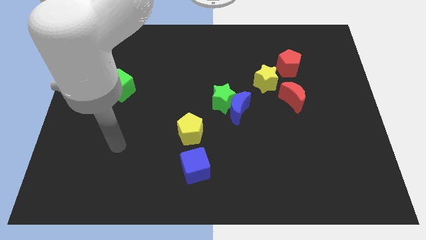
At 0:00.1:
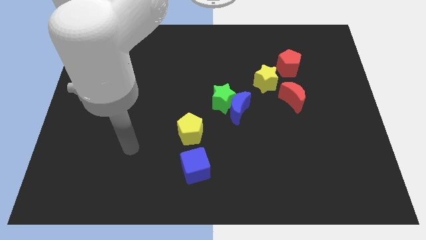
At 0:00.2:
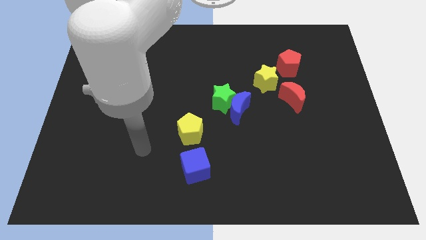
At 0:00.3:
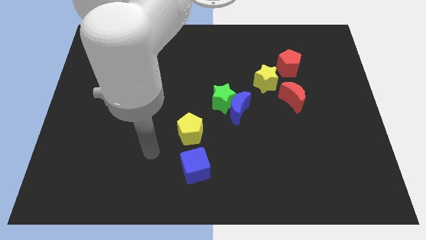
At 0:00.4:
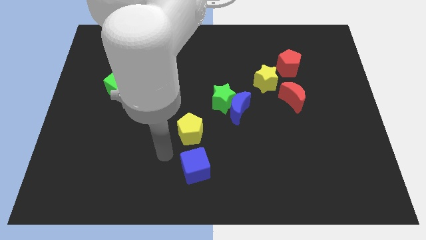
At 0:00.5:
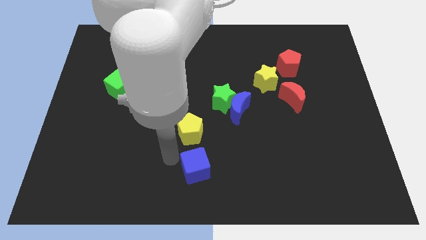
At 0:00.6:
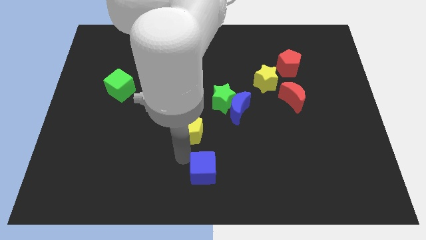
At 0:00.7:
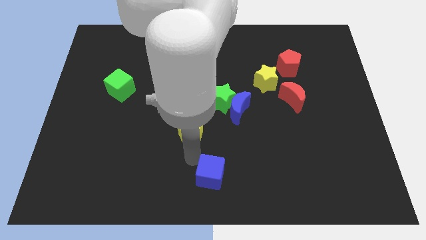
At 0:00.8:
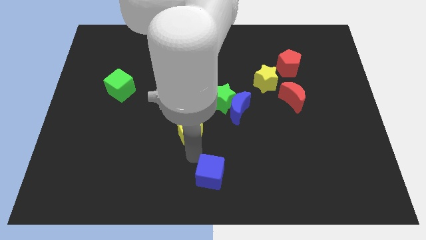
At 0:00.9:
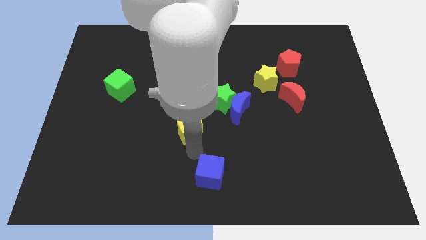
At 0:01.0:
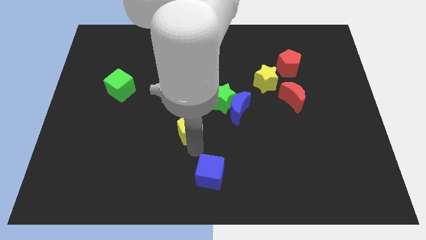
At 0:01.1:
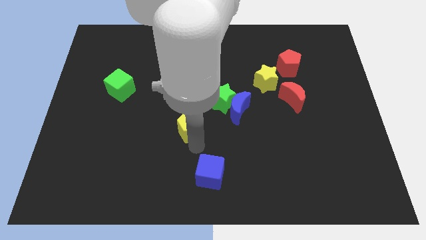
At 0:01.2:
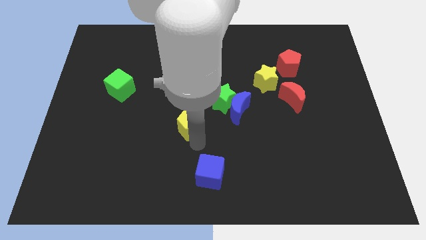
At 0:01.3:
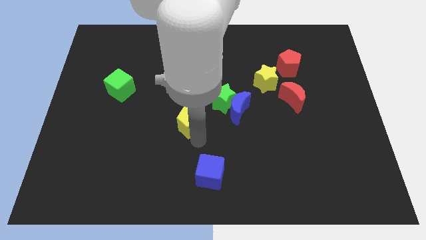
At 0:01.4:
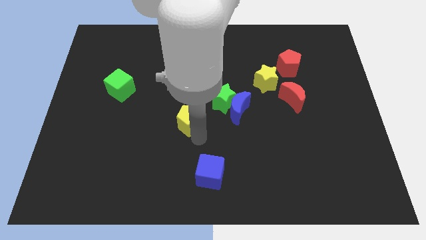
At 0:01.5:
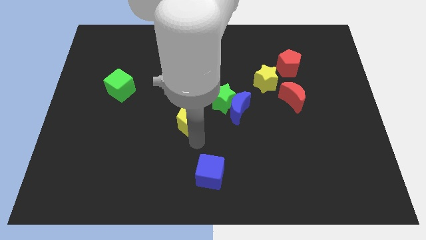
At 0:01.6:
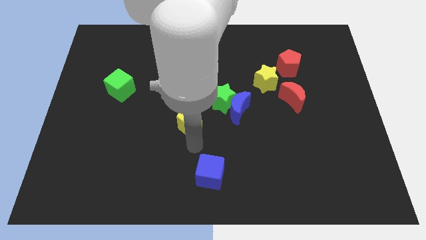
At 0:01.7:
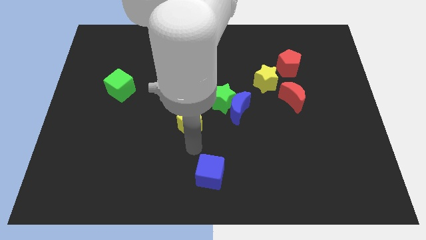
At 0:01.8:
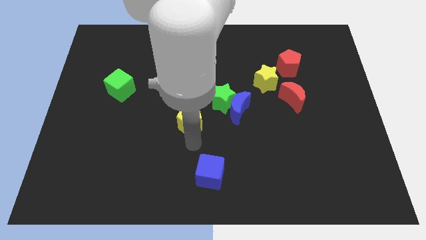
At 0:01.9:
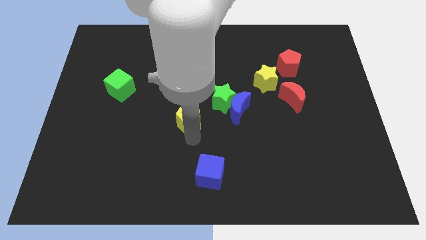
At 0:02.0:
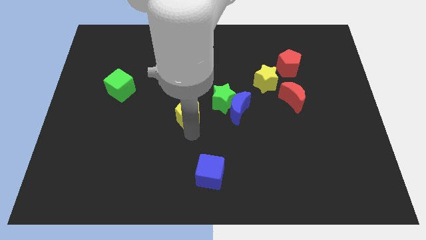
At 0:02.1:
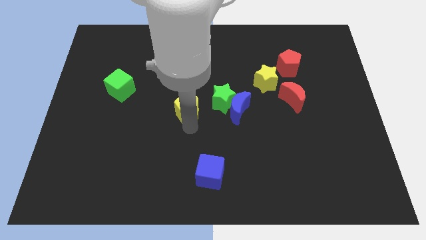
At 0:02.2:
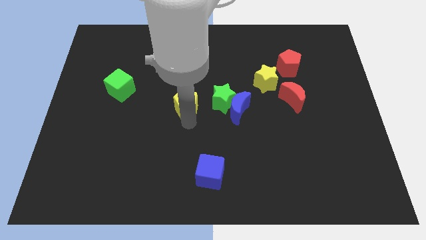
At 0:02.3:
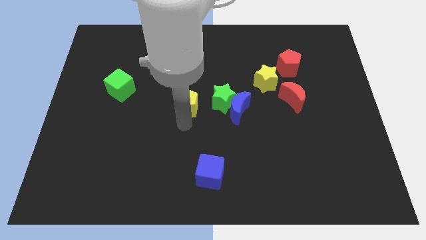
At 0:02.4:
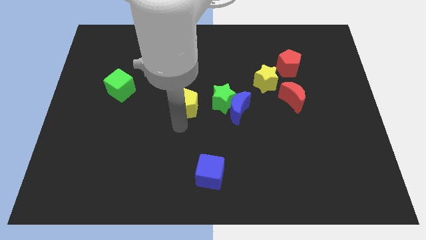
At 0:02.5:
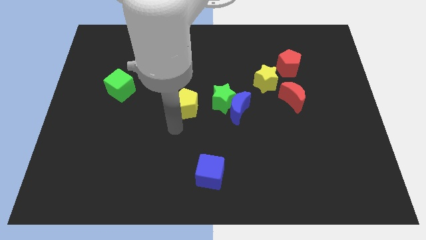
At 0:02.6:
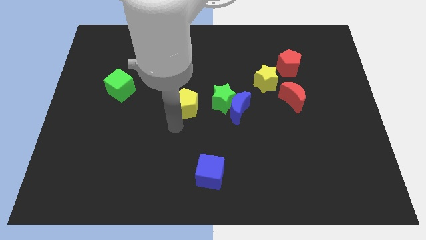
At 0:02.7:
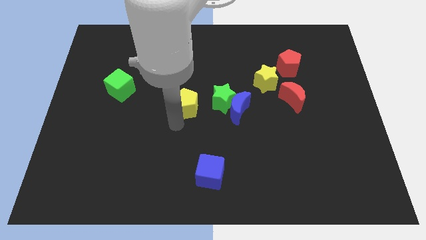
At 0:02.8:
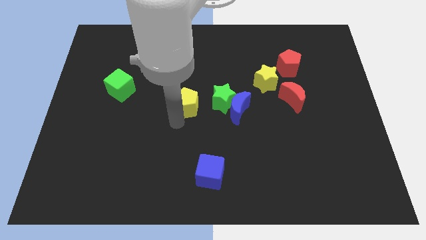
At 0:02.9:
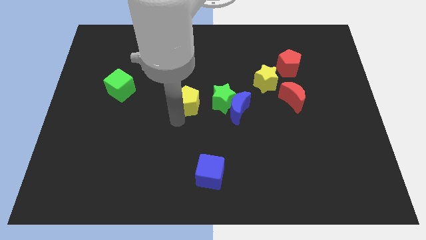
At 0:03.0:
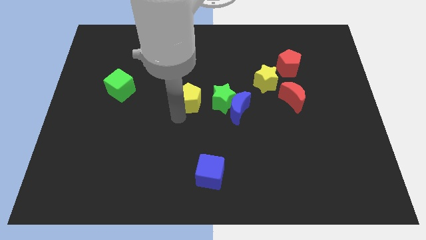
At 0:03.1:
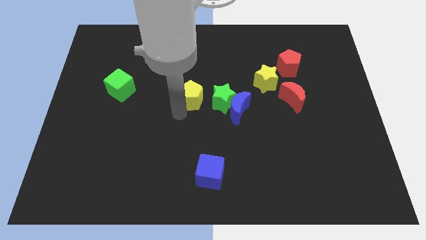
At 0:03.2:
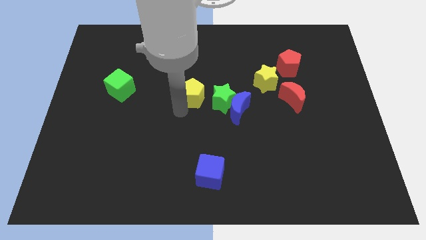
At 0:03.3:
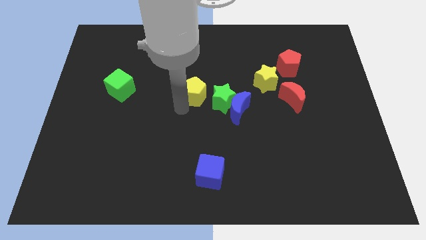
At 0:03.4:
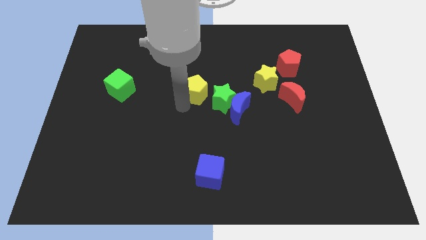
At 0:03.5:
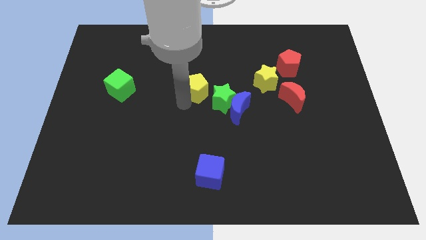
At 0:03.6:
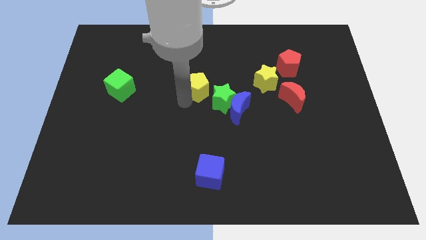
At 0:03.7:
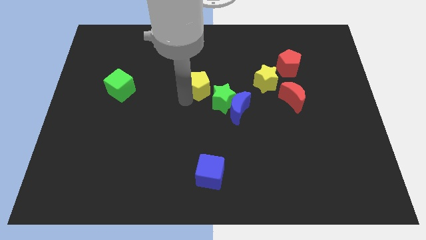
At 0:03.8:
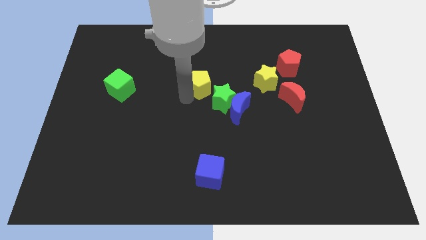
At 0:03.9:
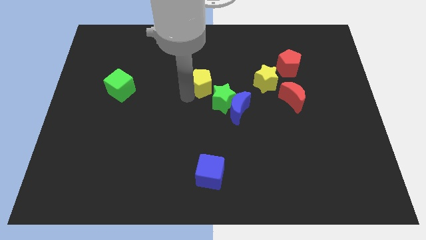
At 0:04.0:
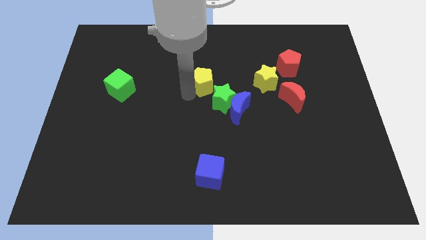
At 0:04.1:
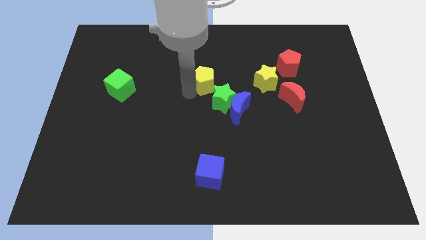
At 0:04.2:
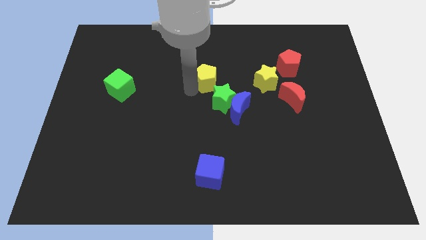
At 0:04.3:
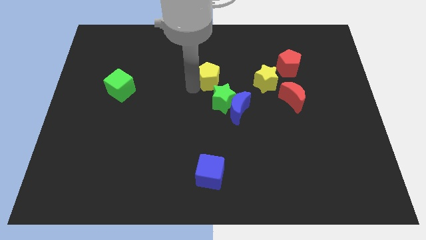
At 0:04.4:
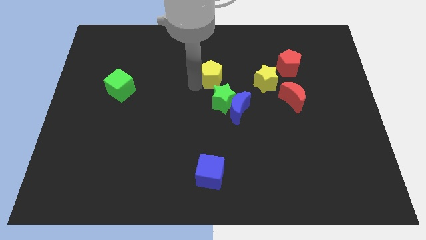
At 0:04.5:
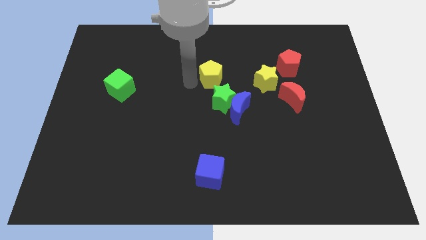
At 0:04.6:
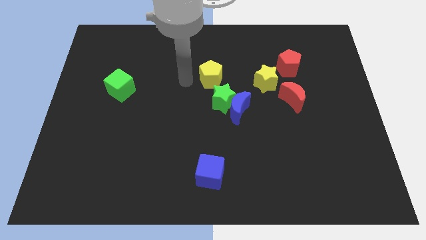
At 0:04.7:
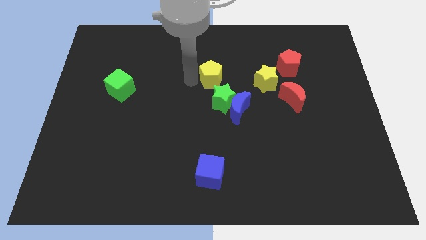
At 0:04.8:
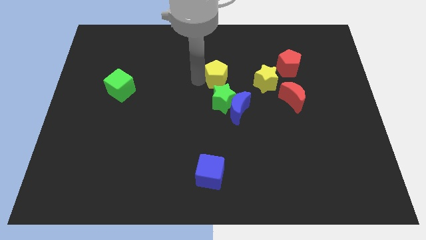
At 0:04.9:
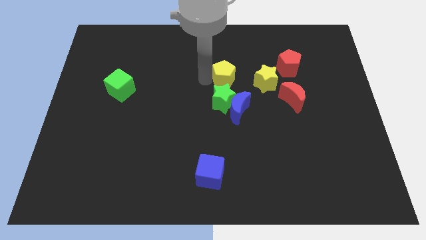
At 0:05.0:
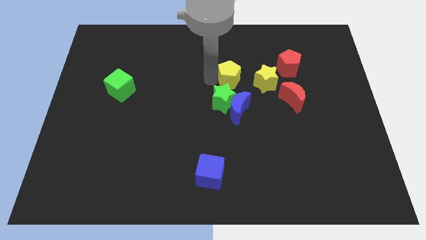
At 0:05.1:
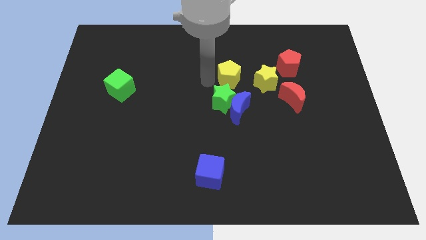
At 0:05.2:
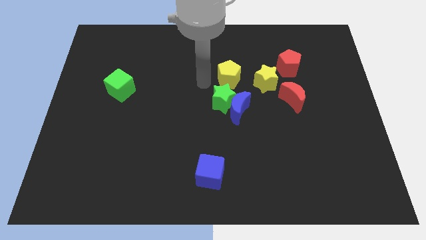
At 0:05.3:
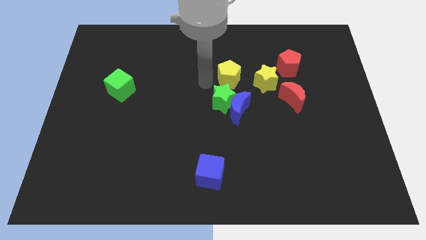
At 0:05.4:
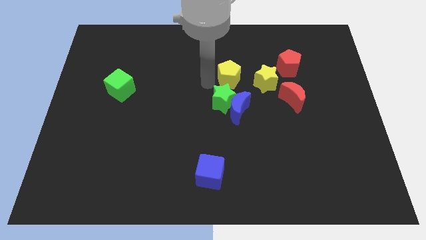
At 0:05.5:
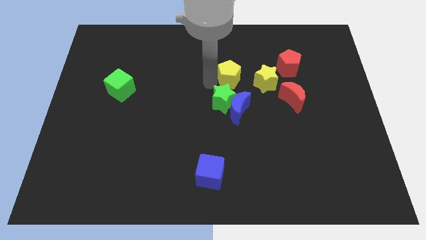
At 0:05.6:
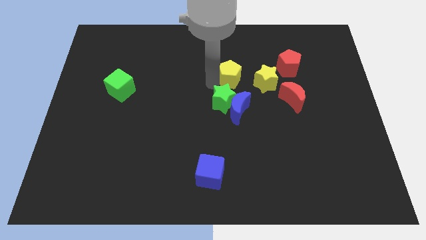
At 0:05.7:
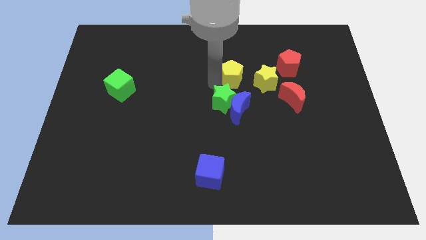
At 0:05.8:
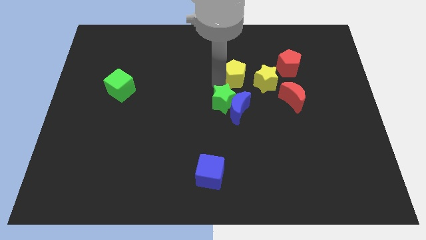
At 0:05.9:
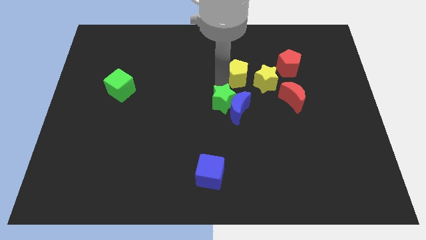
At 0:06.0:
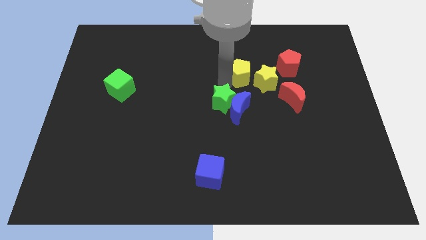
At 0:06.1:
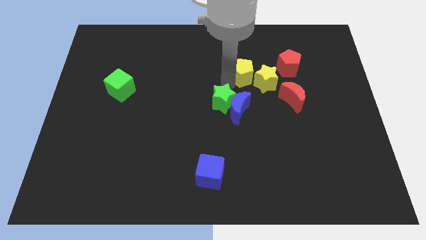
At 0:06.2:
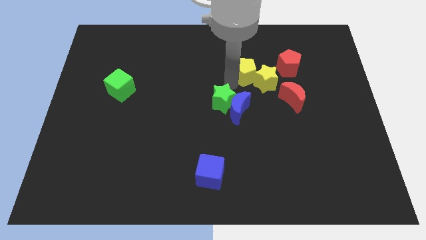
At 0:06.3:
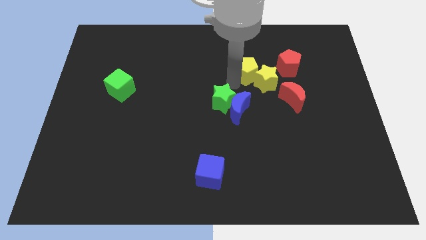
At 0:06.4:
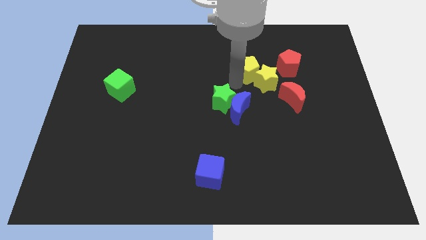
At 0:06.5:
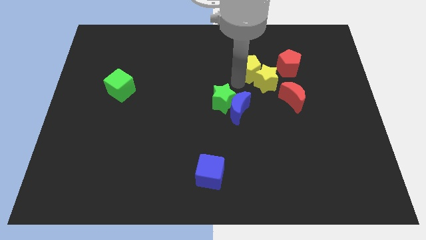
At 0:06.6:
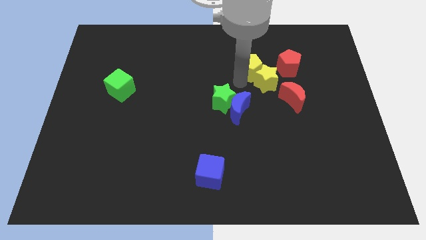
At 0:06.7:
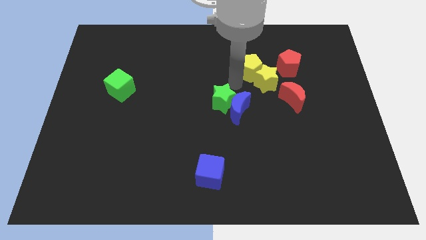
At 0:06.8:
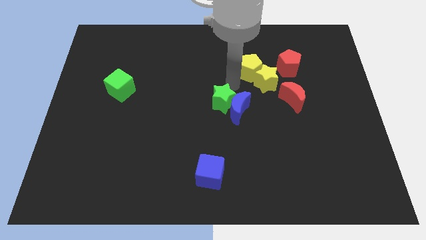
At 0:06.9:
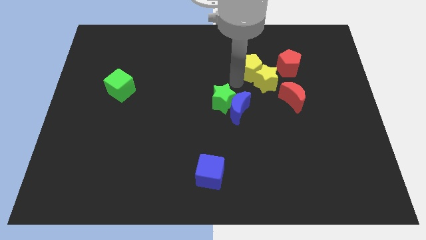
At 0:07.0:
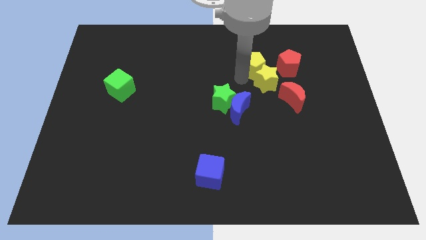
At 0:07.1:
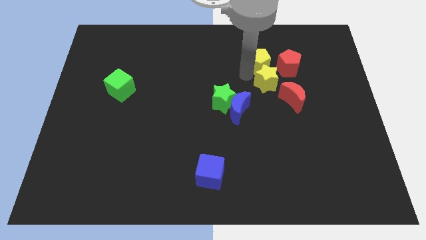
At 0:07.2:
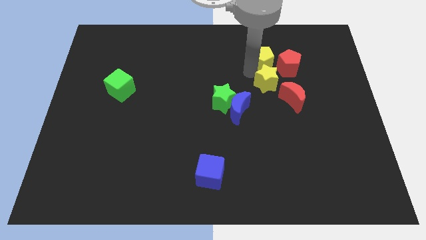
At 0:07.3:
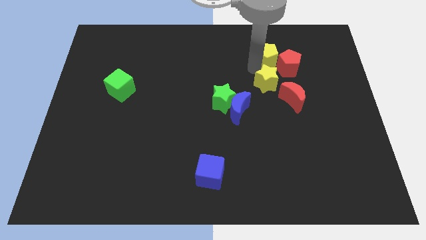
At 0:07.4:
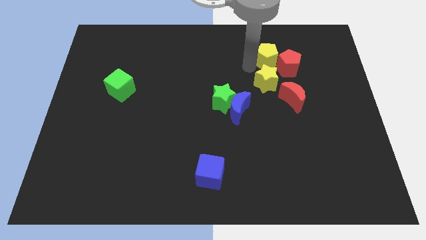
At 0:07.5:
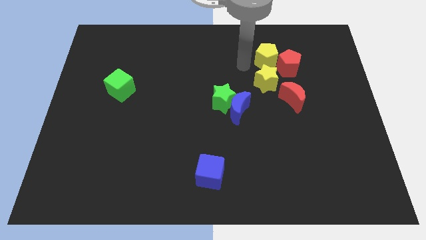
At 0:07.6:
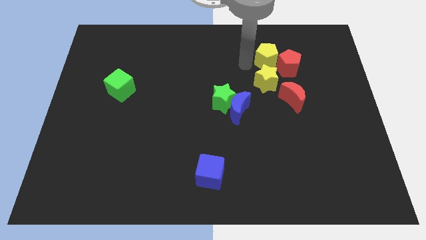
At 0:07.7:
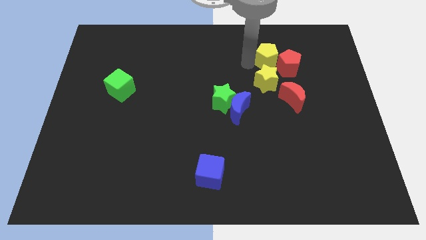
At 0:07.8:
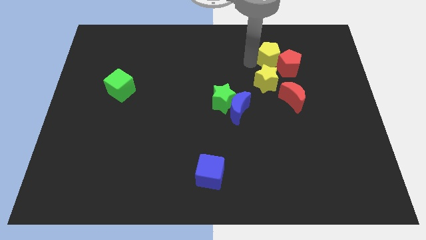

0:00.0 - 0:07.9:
put the yellow pentagon to the top of the red moon

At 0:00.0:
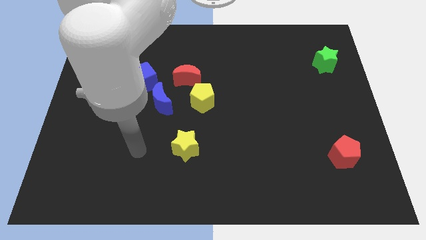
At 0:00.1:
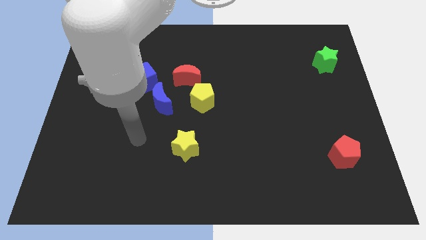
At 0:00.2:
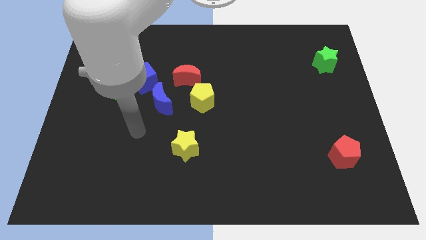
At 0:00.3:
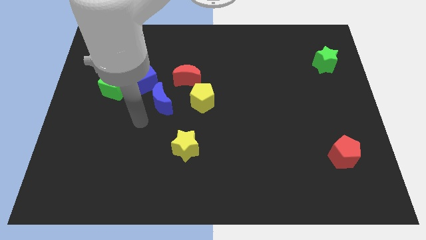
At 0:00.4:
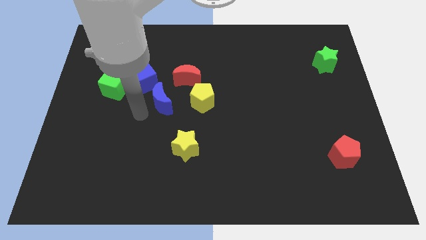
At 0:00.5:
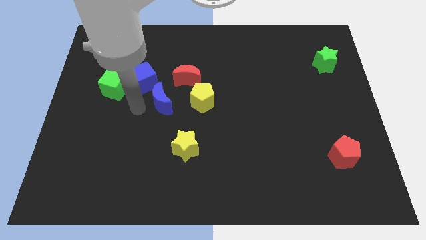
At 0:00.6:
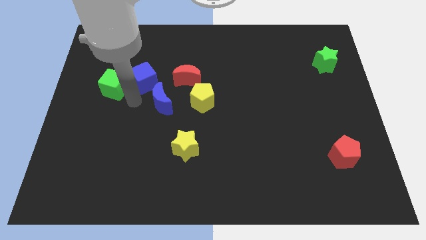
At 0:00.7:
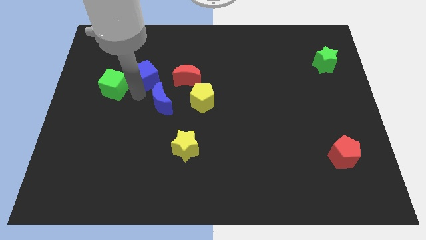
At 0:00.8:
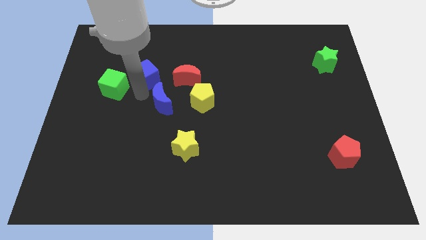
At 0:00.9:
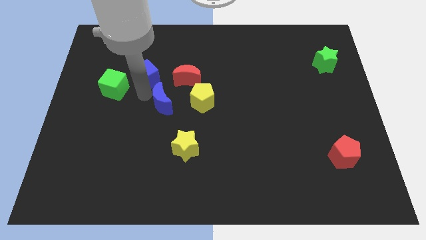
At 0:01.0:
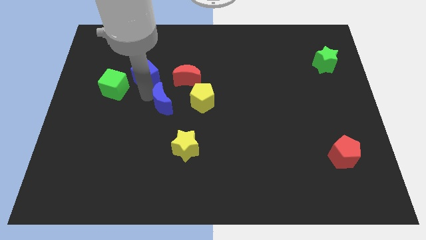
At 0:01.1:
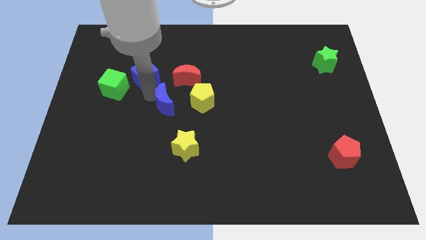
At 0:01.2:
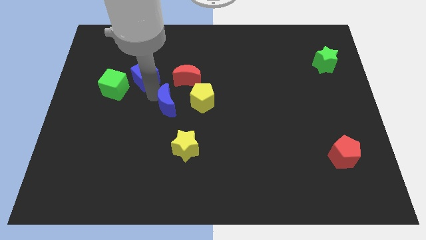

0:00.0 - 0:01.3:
slide the blue moon to the bottom side of the red moon
